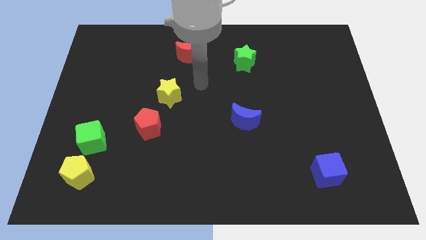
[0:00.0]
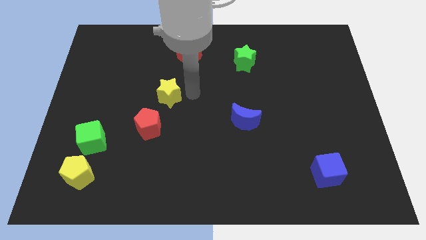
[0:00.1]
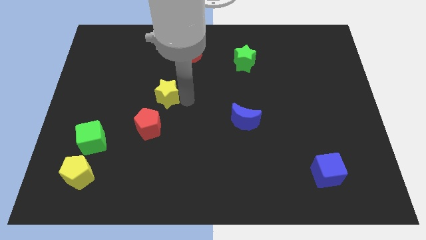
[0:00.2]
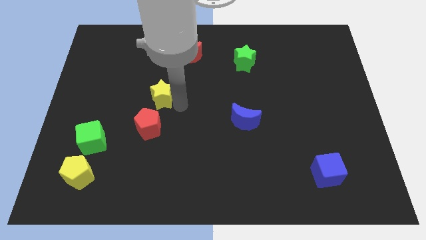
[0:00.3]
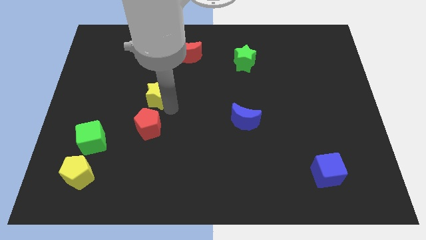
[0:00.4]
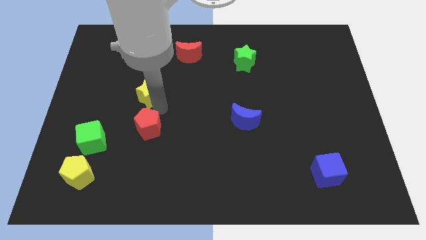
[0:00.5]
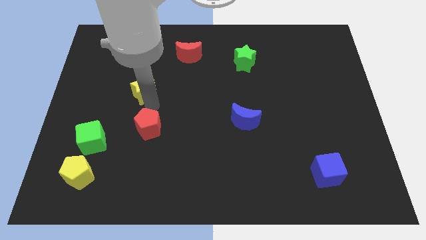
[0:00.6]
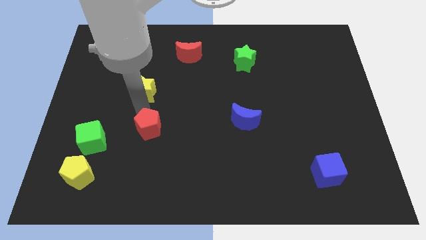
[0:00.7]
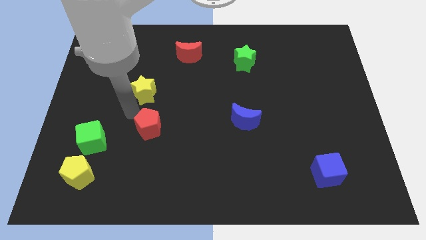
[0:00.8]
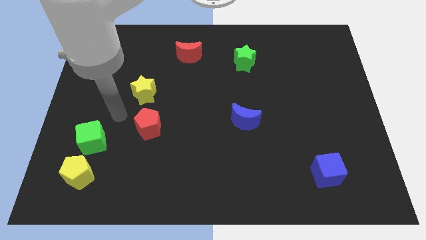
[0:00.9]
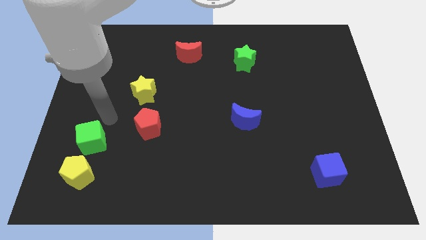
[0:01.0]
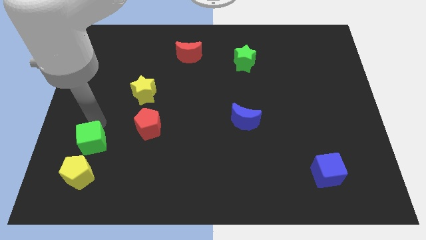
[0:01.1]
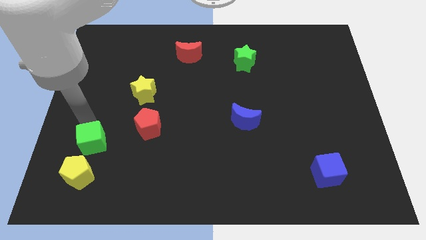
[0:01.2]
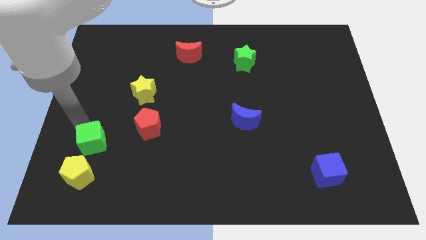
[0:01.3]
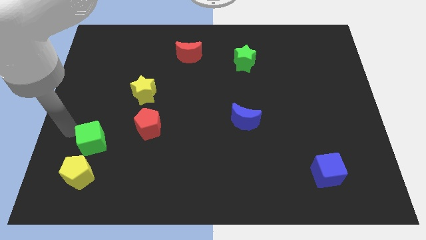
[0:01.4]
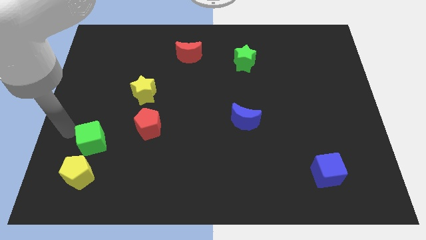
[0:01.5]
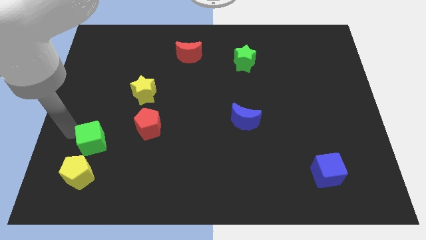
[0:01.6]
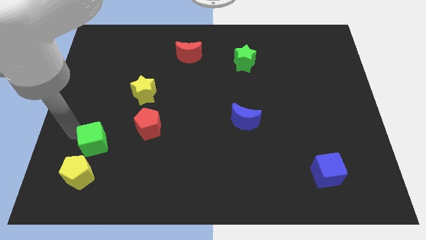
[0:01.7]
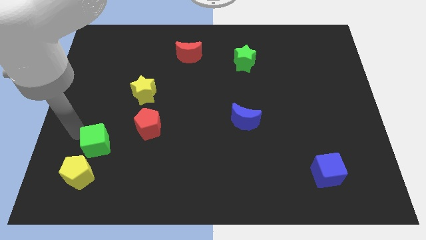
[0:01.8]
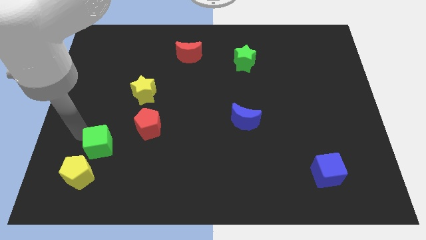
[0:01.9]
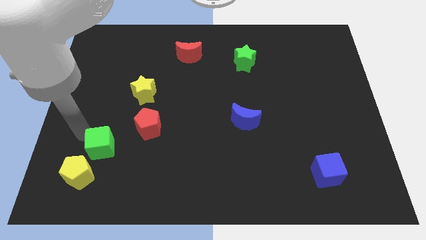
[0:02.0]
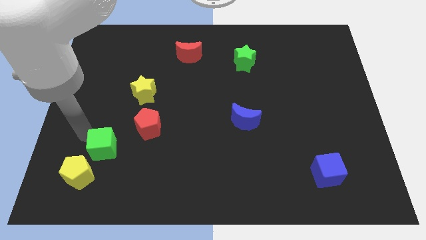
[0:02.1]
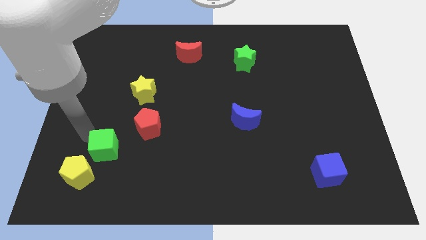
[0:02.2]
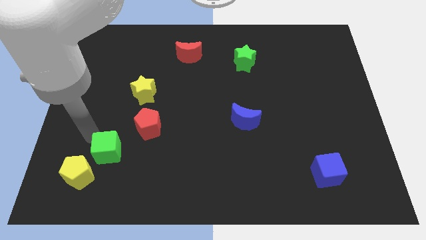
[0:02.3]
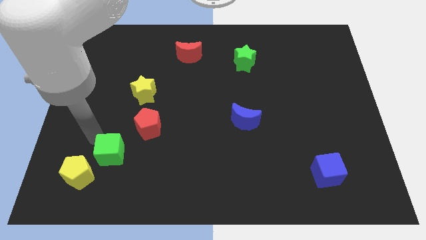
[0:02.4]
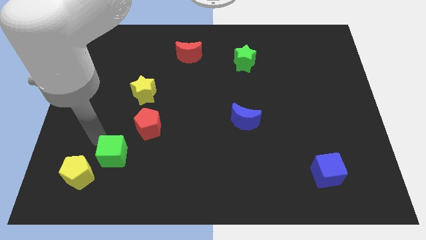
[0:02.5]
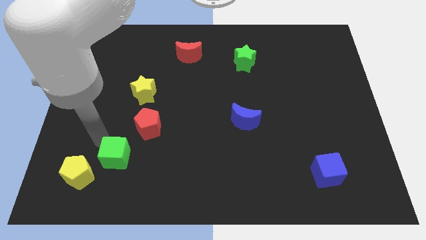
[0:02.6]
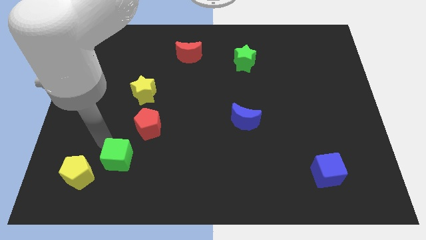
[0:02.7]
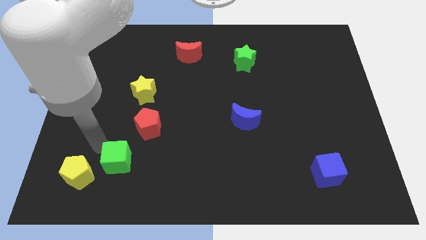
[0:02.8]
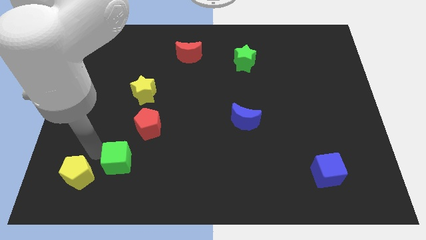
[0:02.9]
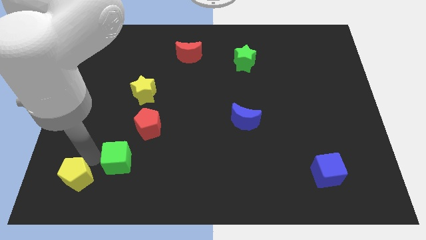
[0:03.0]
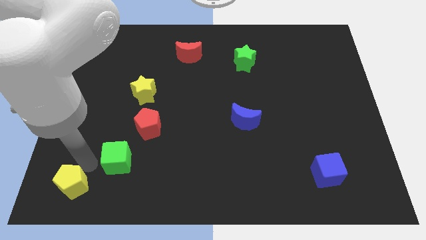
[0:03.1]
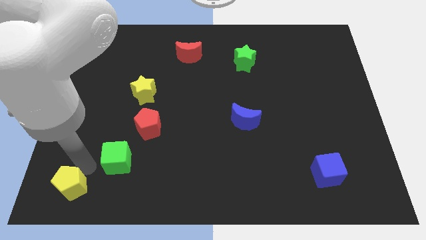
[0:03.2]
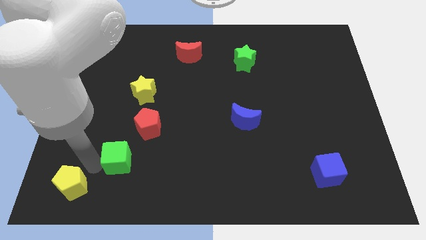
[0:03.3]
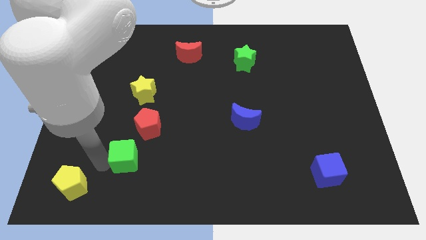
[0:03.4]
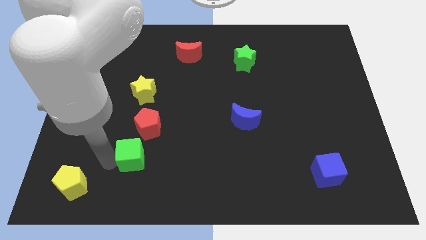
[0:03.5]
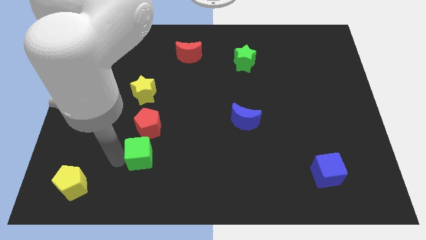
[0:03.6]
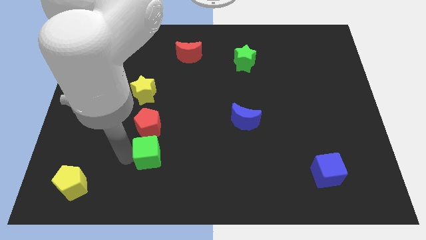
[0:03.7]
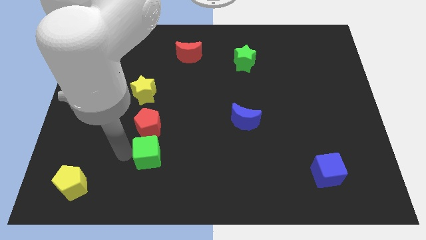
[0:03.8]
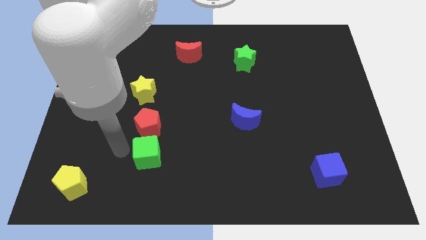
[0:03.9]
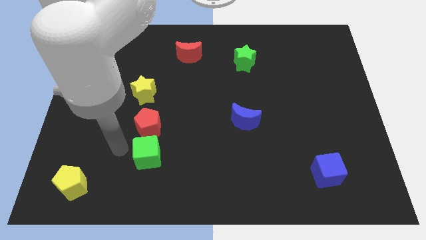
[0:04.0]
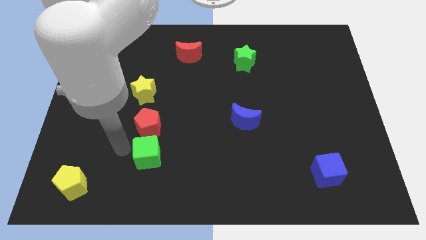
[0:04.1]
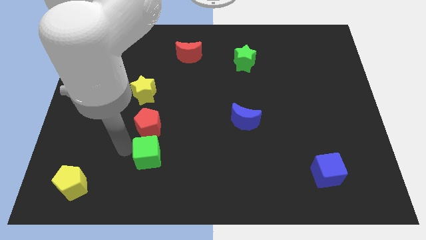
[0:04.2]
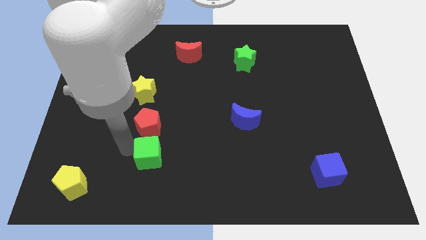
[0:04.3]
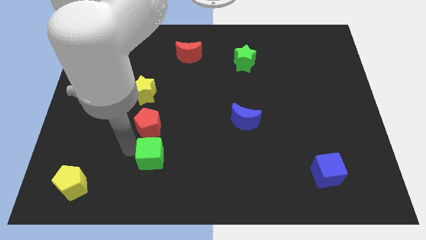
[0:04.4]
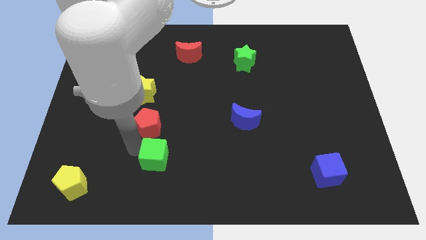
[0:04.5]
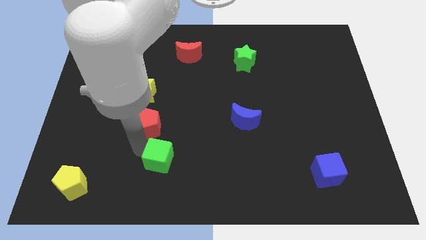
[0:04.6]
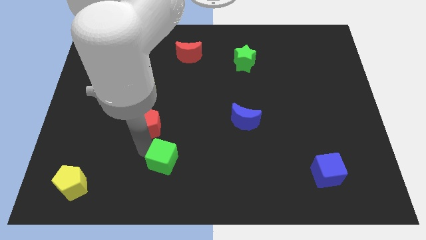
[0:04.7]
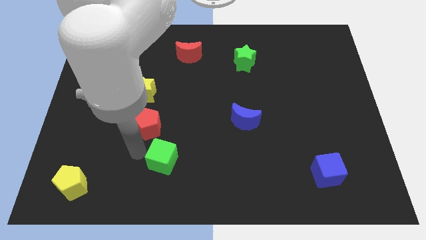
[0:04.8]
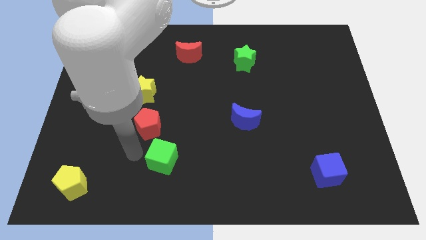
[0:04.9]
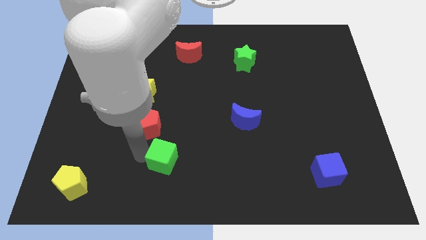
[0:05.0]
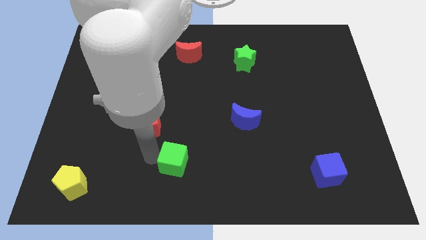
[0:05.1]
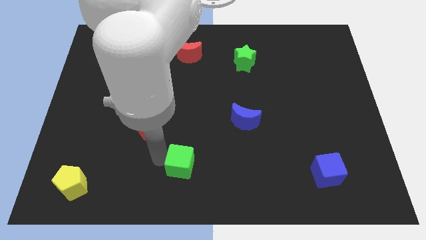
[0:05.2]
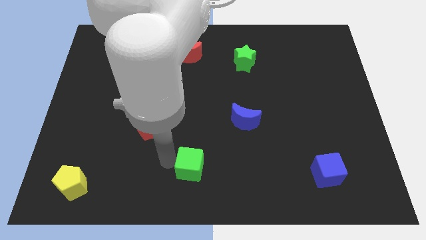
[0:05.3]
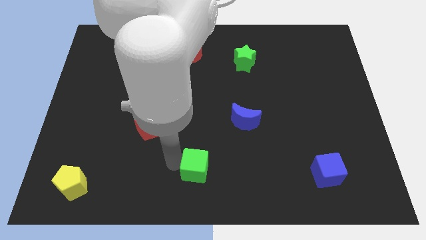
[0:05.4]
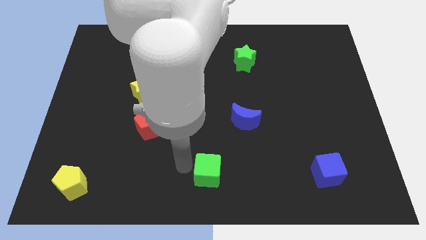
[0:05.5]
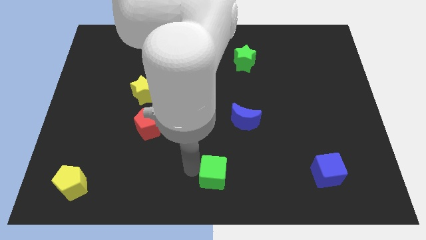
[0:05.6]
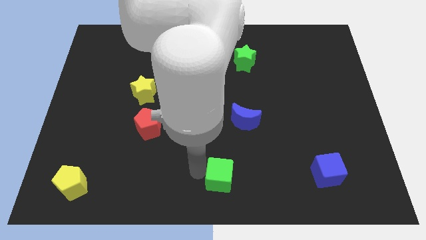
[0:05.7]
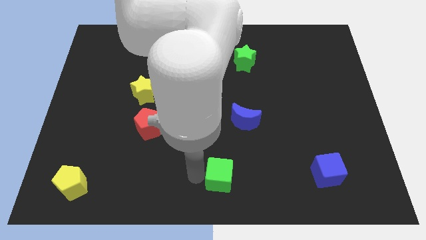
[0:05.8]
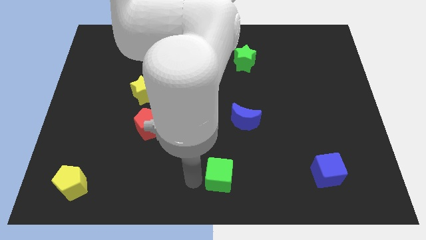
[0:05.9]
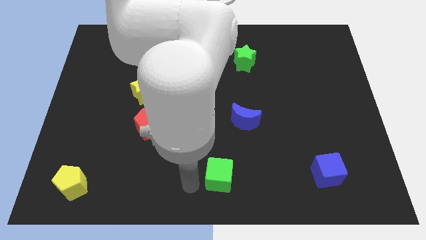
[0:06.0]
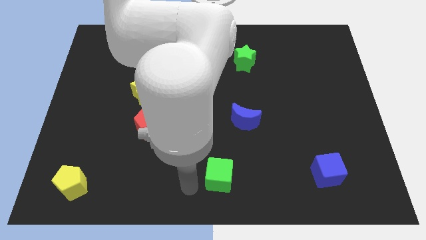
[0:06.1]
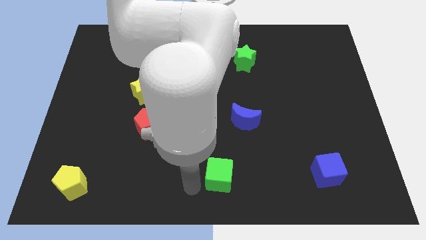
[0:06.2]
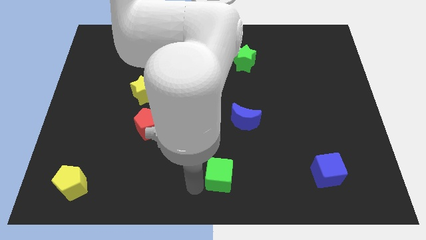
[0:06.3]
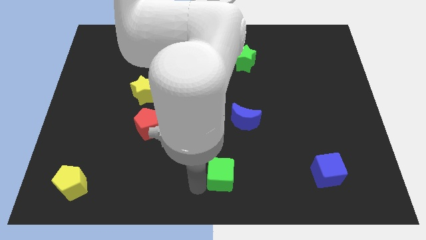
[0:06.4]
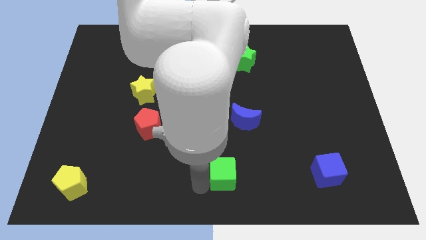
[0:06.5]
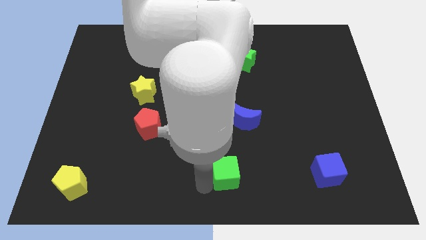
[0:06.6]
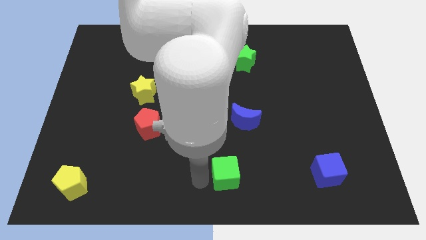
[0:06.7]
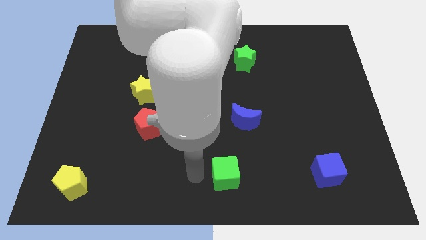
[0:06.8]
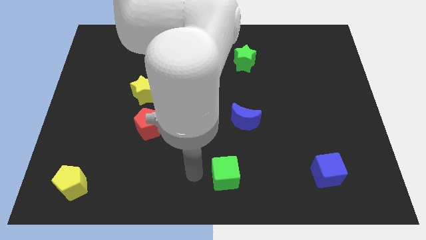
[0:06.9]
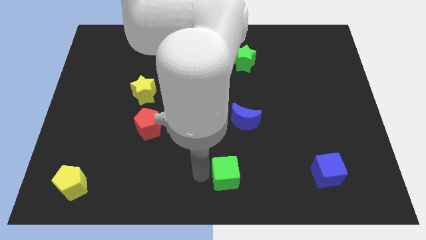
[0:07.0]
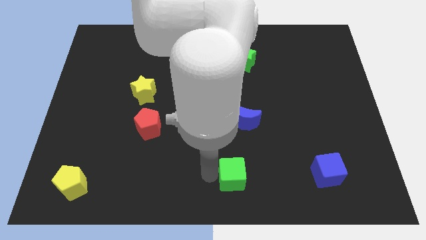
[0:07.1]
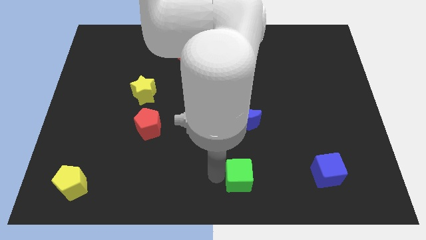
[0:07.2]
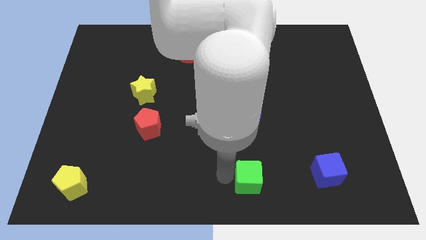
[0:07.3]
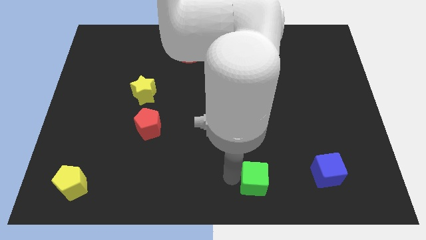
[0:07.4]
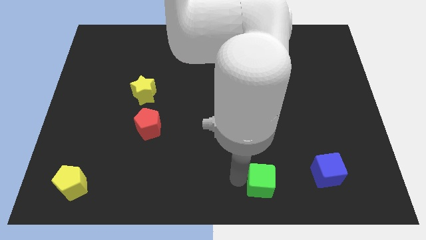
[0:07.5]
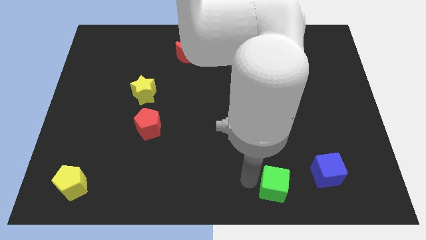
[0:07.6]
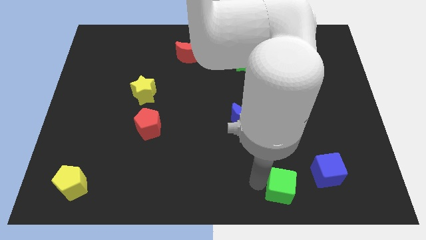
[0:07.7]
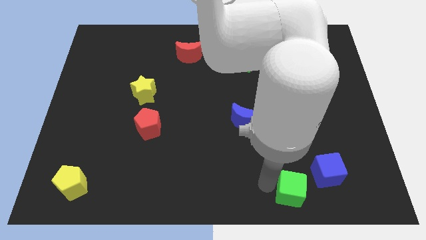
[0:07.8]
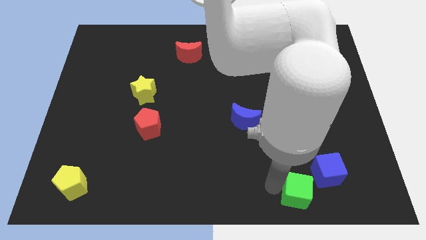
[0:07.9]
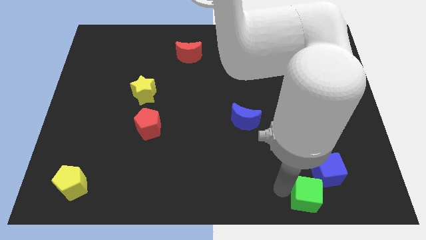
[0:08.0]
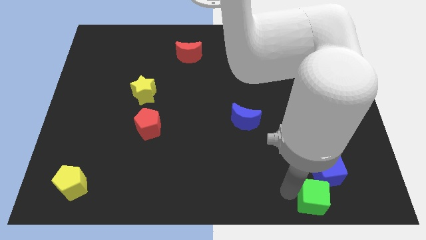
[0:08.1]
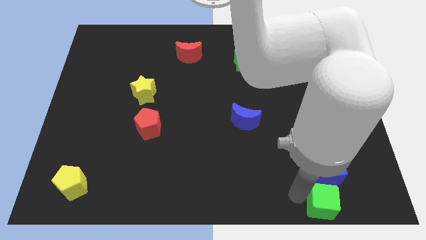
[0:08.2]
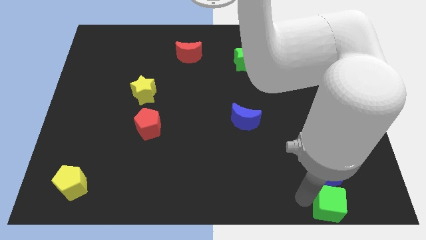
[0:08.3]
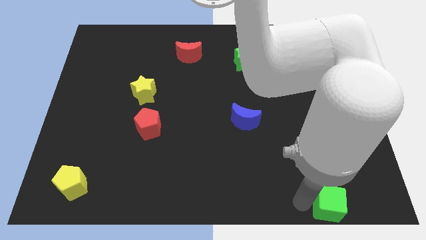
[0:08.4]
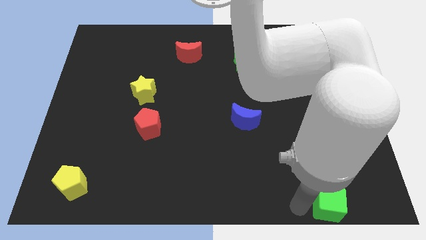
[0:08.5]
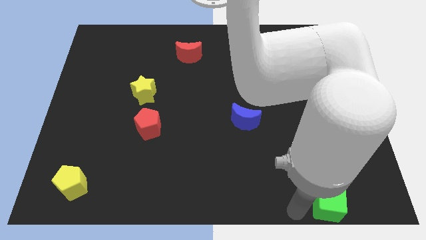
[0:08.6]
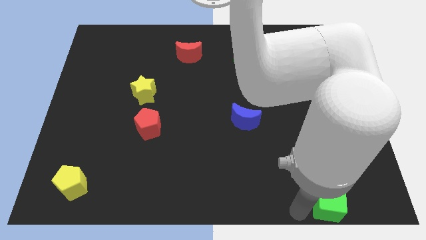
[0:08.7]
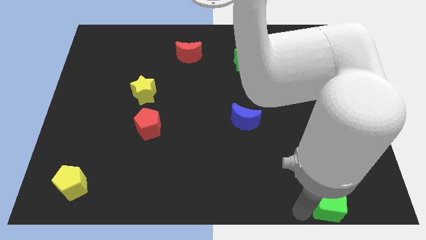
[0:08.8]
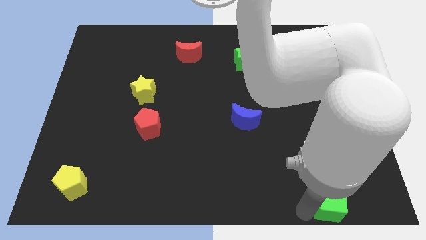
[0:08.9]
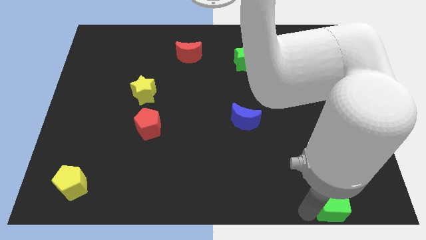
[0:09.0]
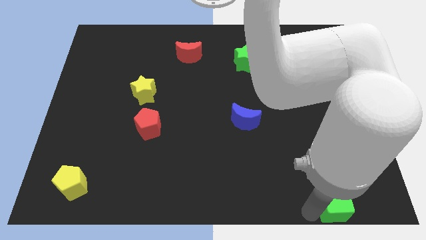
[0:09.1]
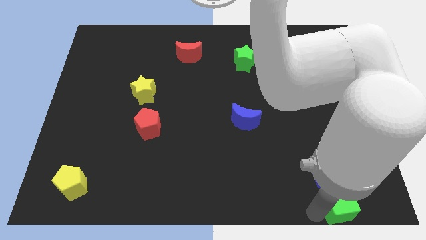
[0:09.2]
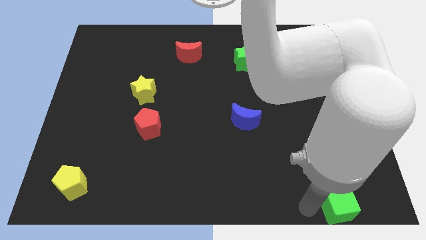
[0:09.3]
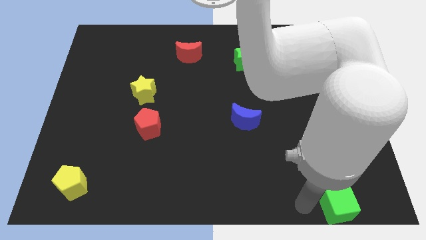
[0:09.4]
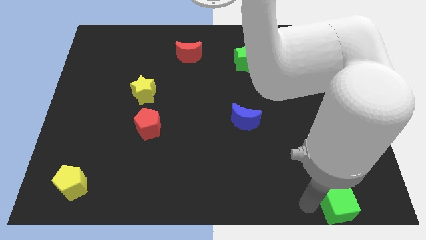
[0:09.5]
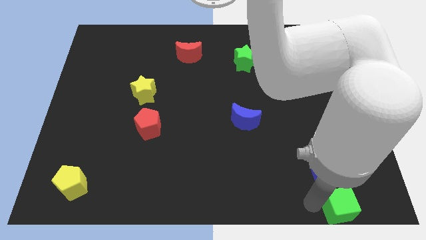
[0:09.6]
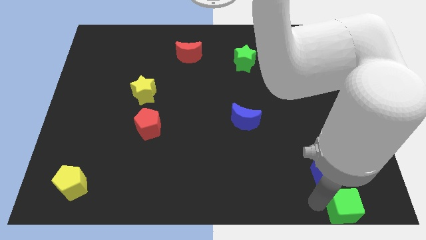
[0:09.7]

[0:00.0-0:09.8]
slide the green cube to the bottom right corner
